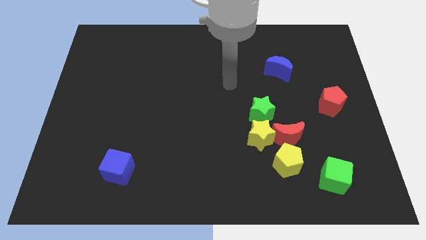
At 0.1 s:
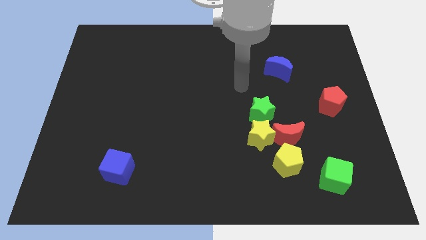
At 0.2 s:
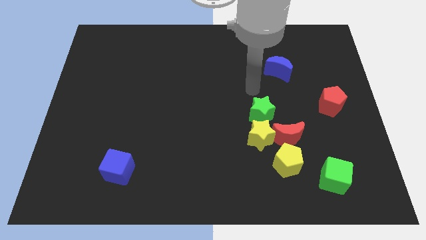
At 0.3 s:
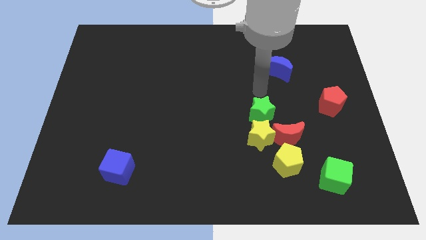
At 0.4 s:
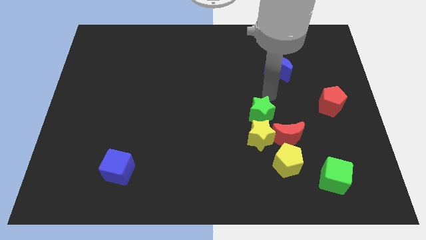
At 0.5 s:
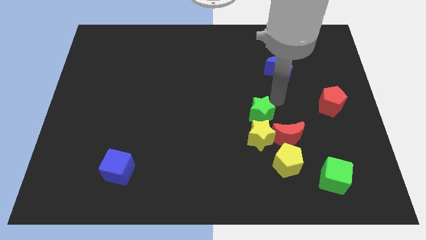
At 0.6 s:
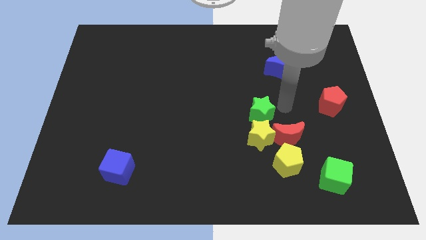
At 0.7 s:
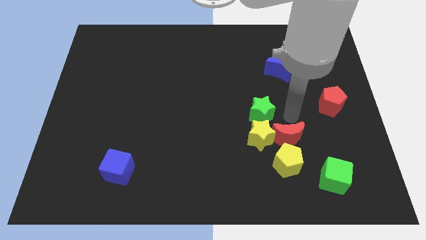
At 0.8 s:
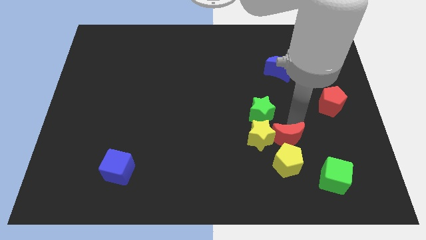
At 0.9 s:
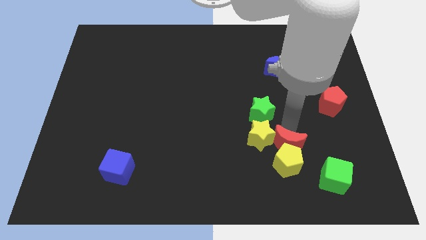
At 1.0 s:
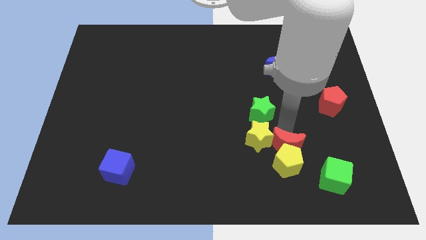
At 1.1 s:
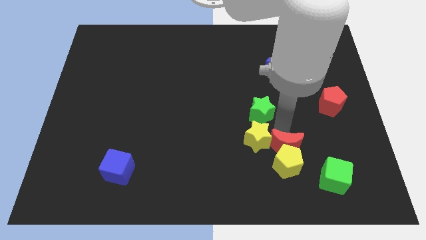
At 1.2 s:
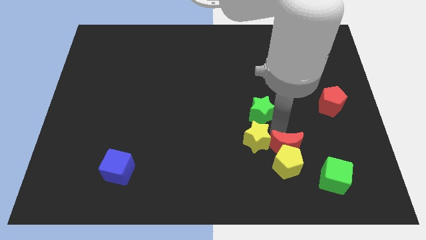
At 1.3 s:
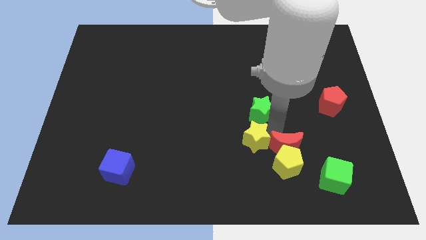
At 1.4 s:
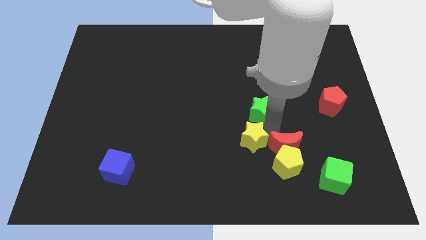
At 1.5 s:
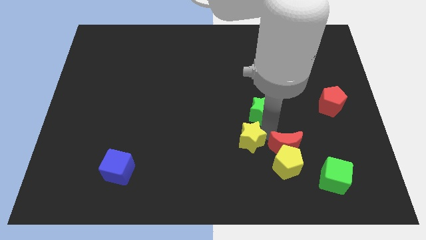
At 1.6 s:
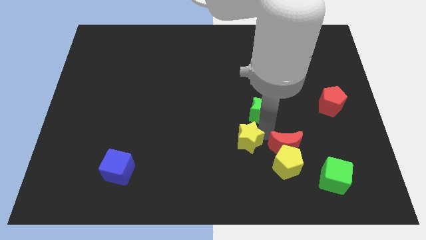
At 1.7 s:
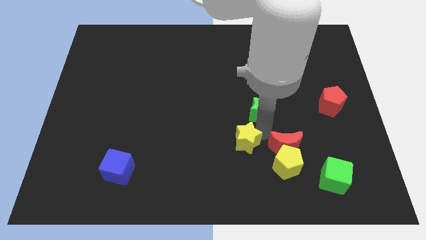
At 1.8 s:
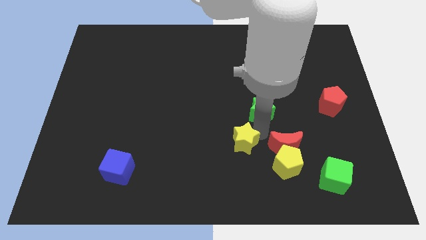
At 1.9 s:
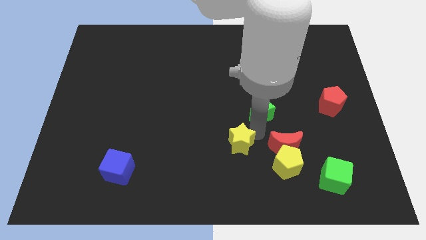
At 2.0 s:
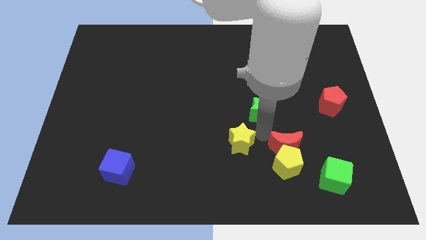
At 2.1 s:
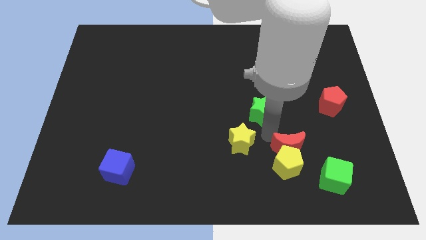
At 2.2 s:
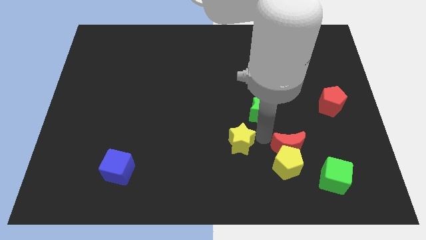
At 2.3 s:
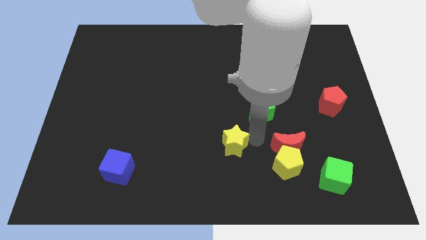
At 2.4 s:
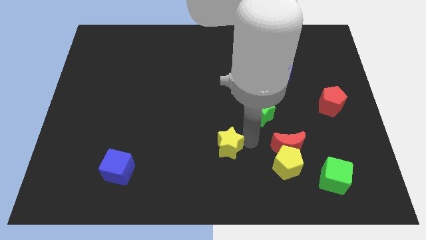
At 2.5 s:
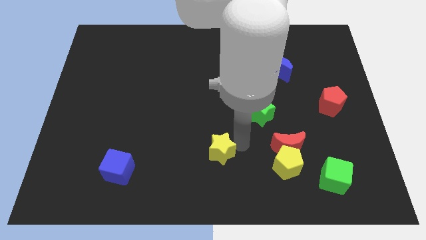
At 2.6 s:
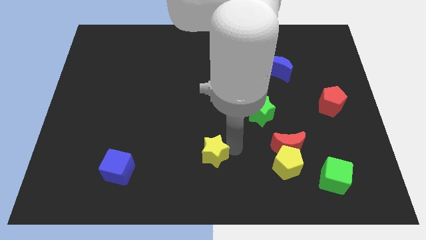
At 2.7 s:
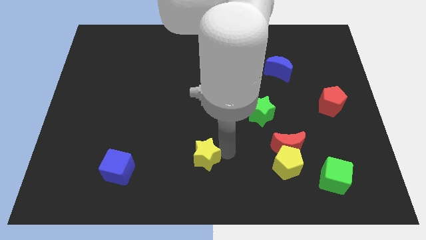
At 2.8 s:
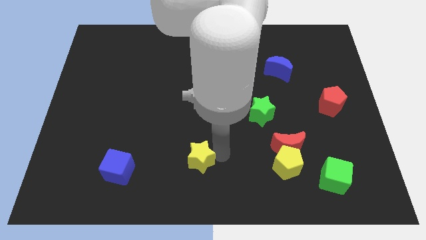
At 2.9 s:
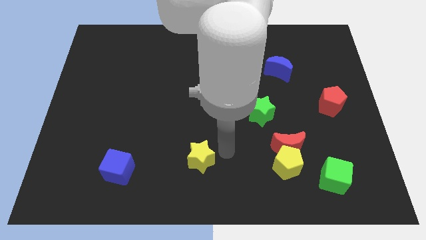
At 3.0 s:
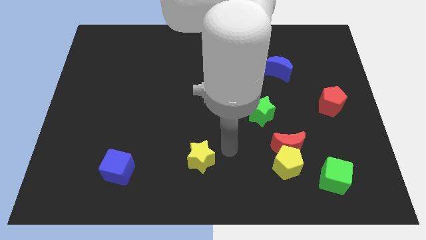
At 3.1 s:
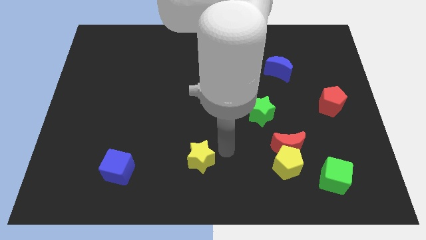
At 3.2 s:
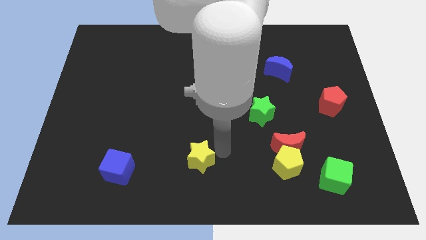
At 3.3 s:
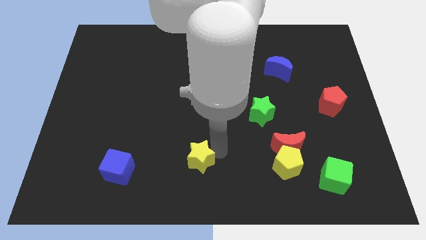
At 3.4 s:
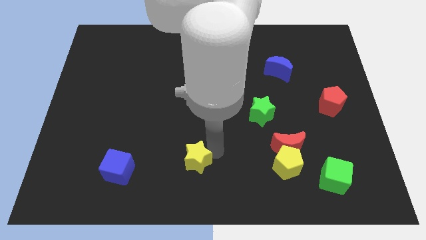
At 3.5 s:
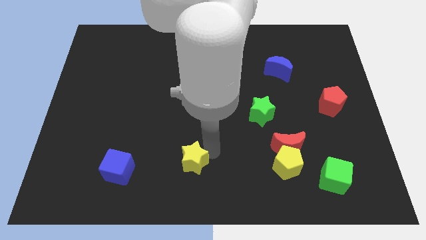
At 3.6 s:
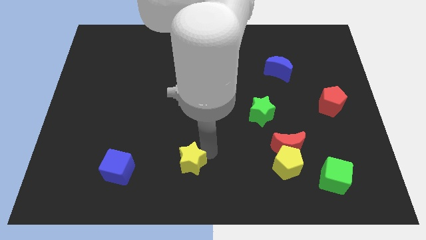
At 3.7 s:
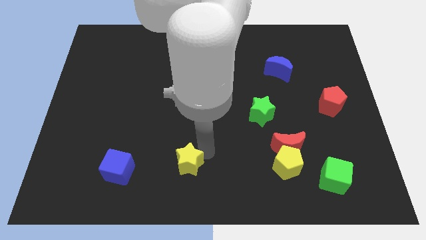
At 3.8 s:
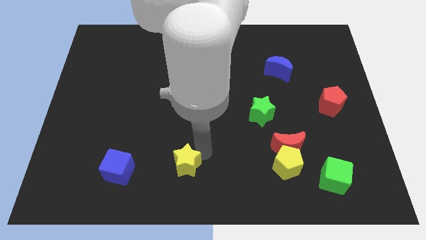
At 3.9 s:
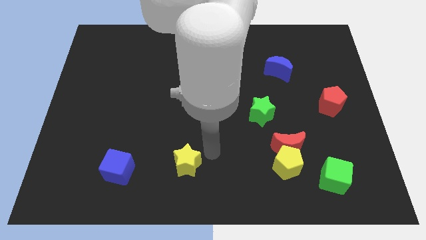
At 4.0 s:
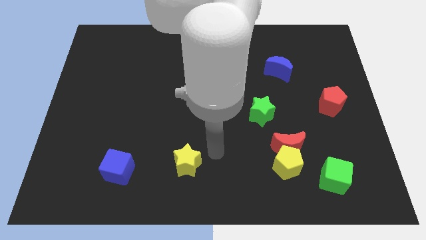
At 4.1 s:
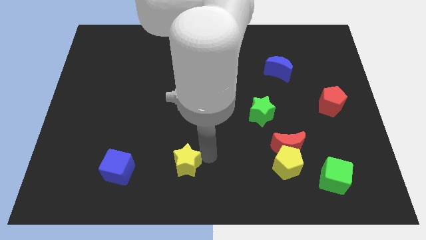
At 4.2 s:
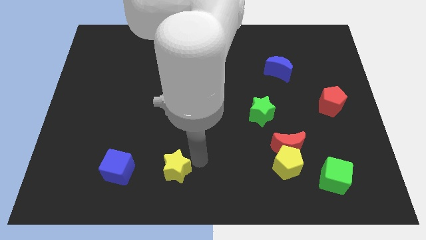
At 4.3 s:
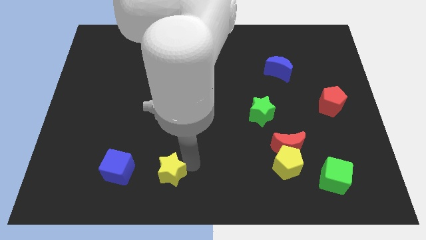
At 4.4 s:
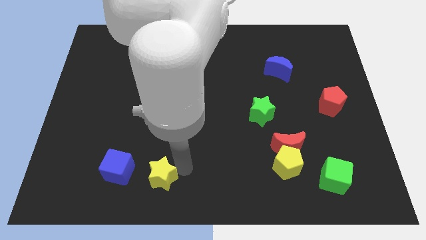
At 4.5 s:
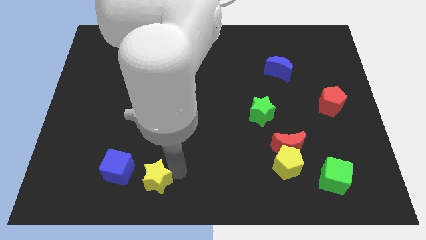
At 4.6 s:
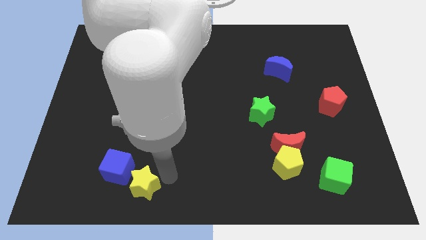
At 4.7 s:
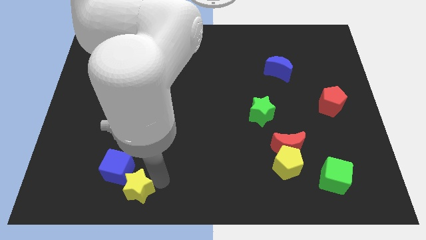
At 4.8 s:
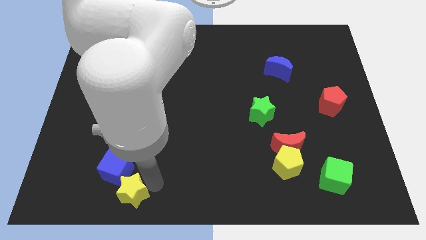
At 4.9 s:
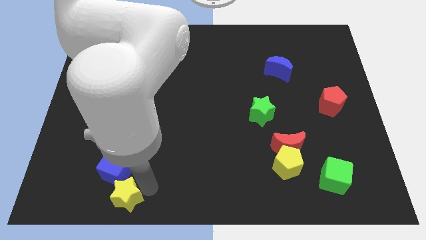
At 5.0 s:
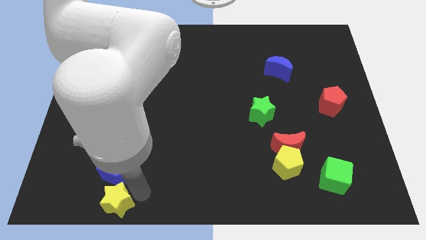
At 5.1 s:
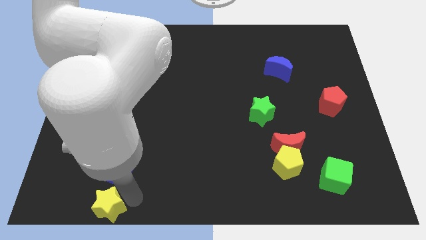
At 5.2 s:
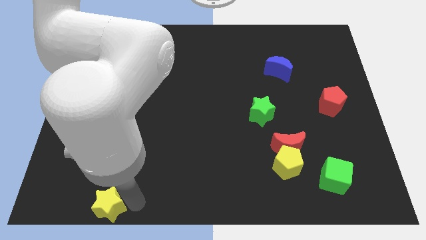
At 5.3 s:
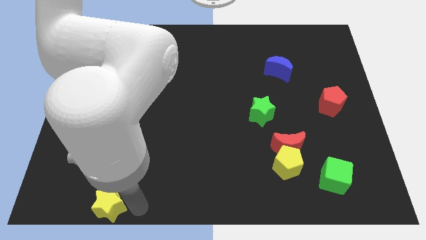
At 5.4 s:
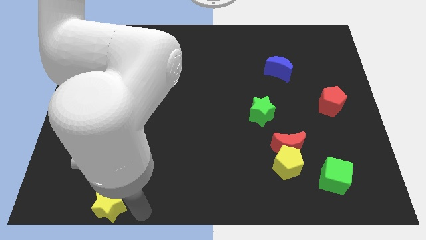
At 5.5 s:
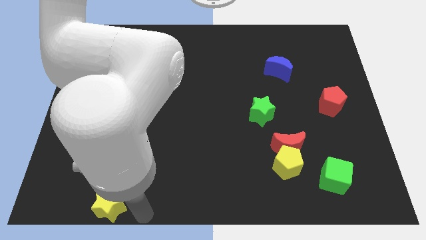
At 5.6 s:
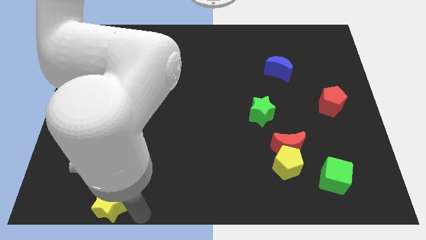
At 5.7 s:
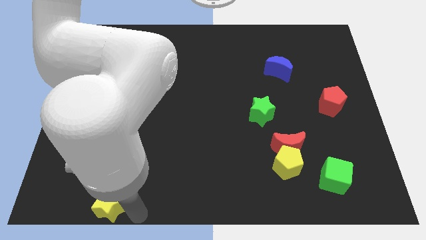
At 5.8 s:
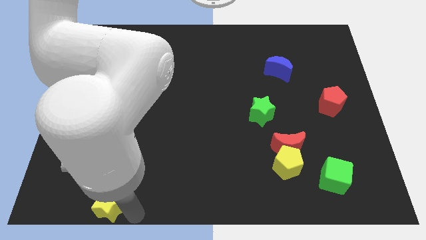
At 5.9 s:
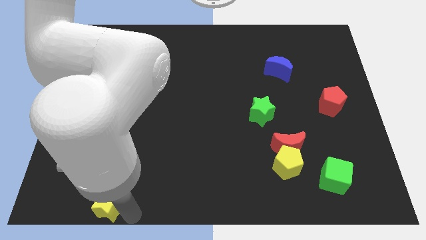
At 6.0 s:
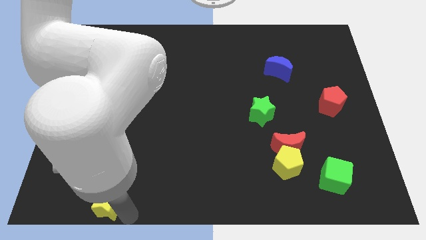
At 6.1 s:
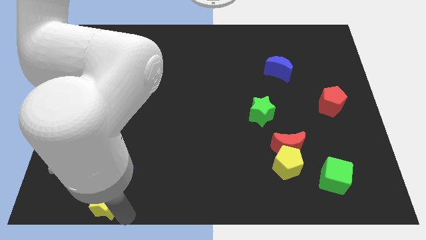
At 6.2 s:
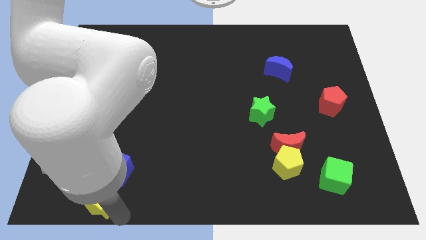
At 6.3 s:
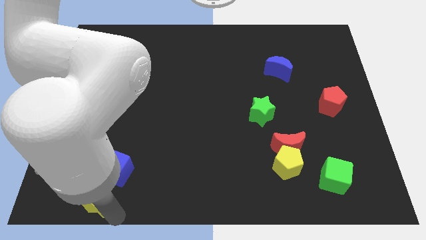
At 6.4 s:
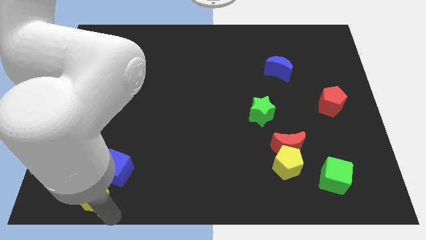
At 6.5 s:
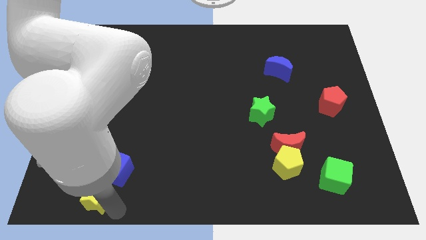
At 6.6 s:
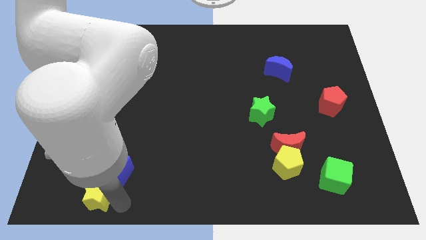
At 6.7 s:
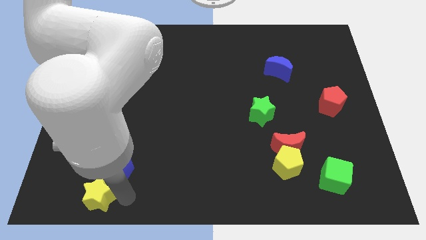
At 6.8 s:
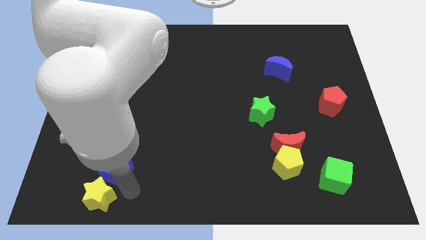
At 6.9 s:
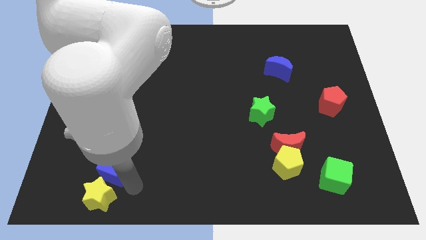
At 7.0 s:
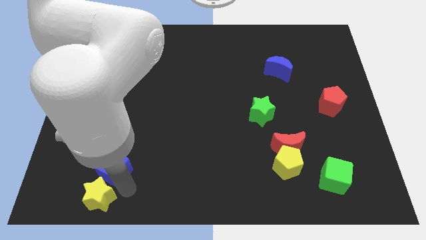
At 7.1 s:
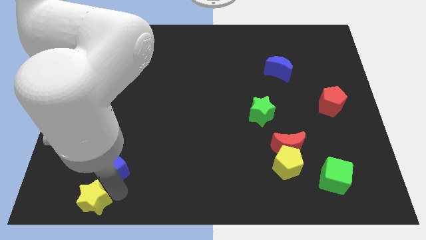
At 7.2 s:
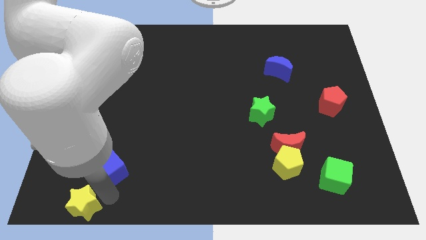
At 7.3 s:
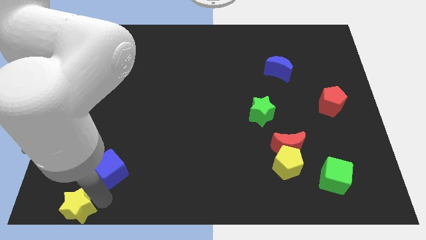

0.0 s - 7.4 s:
slide the yellow star to the bottom left of the board
